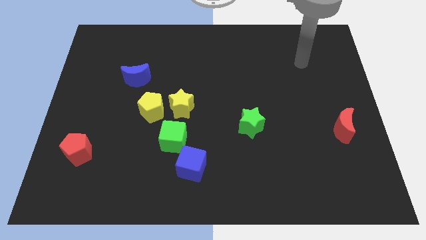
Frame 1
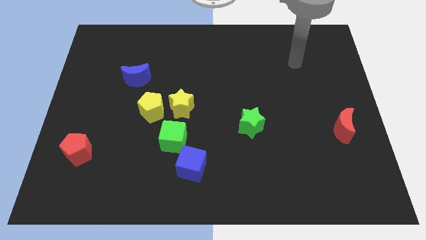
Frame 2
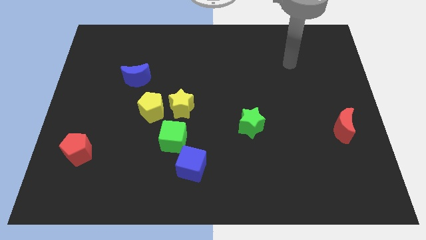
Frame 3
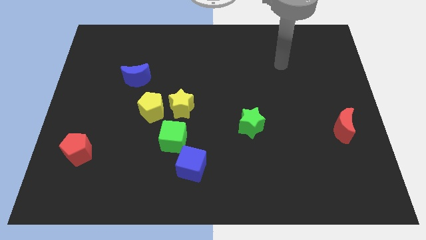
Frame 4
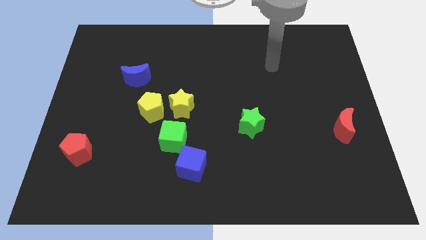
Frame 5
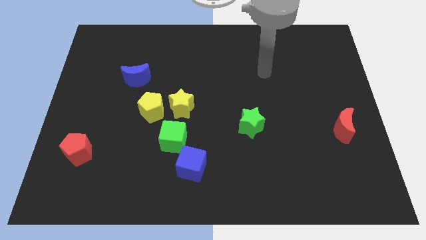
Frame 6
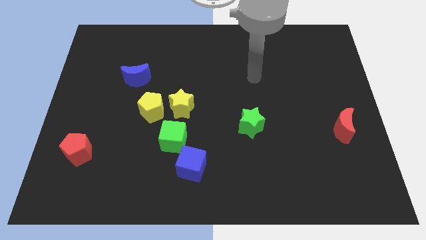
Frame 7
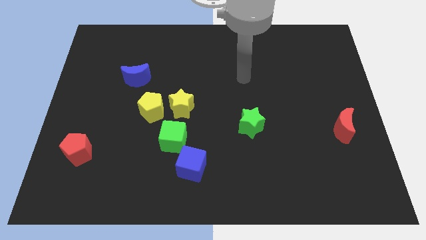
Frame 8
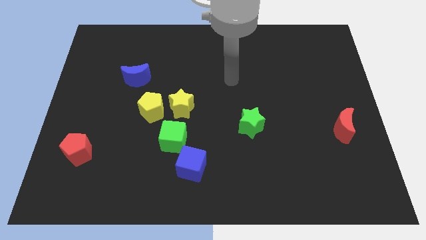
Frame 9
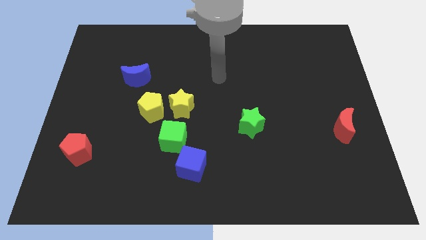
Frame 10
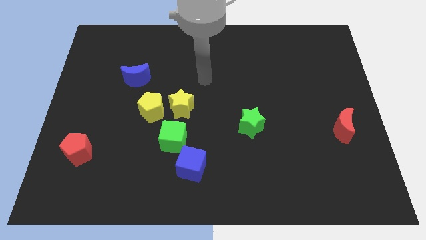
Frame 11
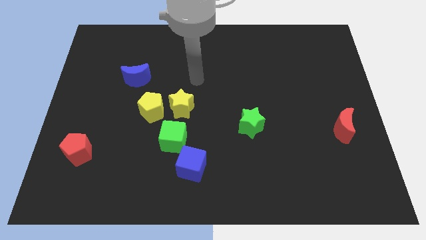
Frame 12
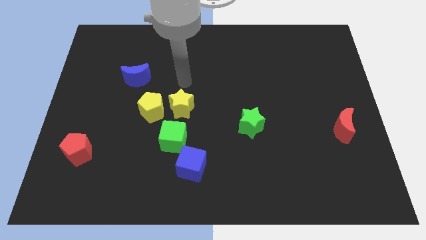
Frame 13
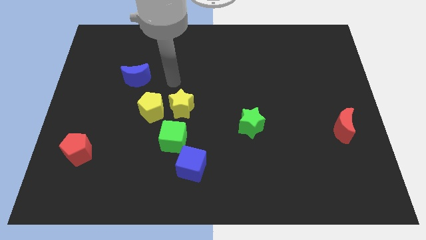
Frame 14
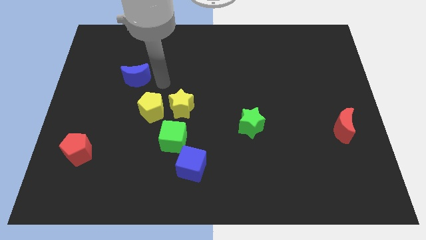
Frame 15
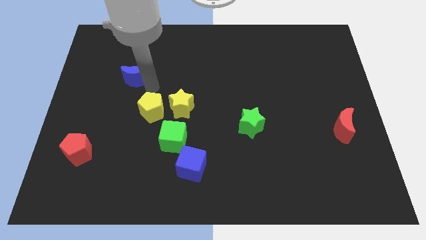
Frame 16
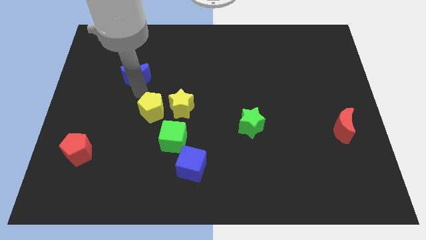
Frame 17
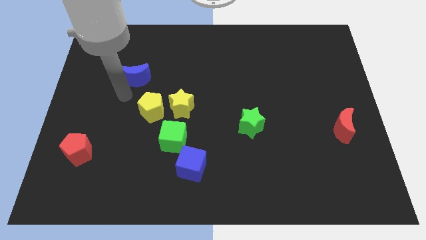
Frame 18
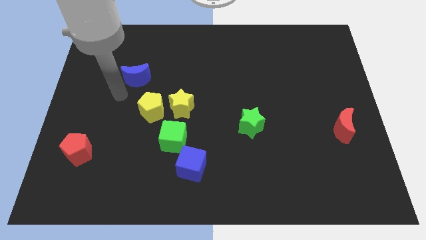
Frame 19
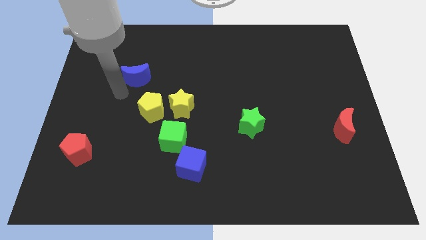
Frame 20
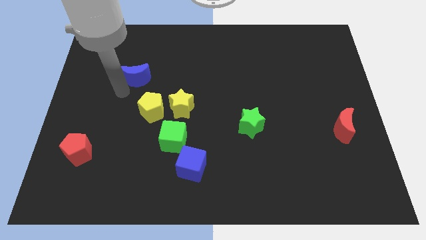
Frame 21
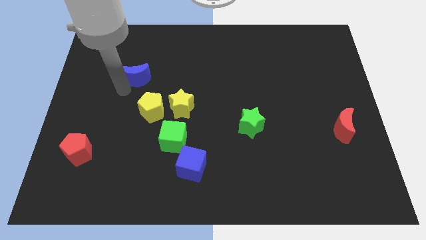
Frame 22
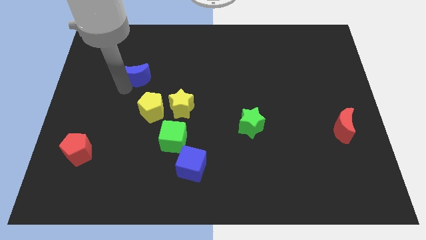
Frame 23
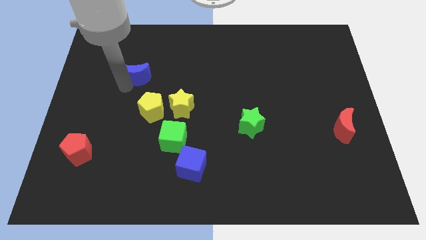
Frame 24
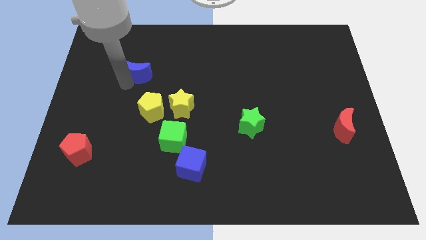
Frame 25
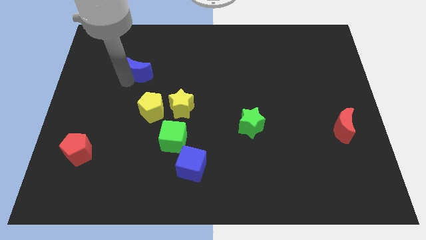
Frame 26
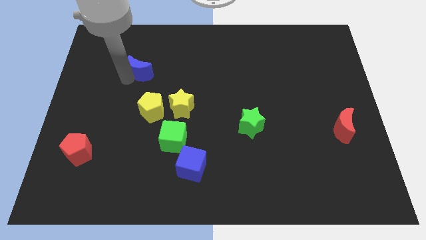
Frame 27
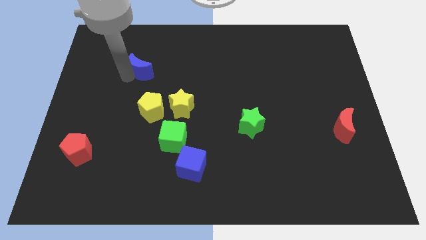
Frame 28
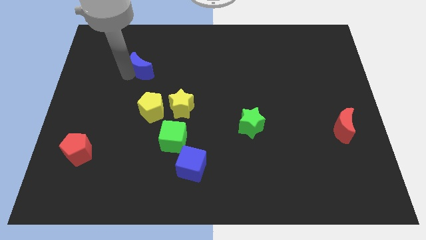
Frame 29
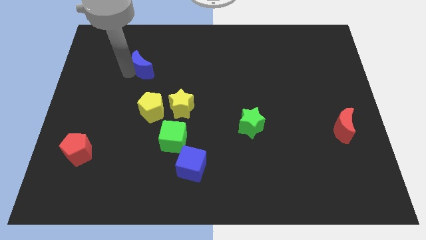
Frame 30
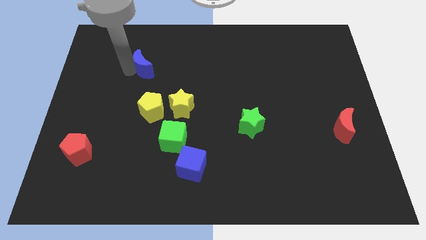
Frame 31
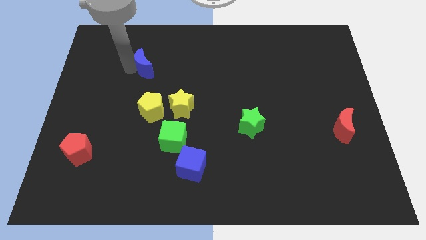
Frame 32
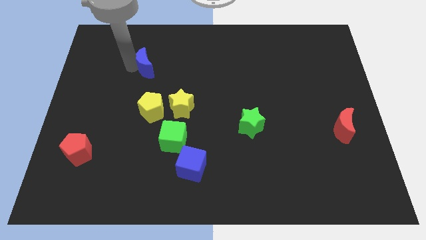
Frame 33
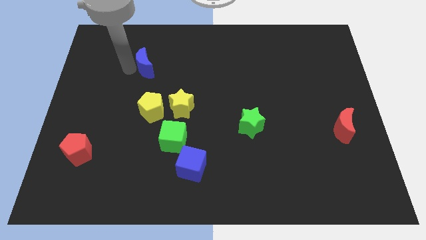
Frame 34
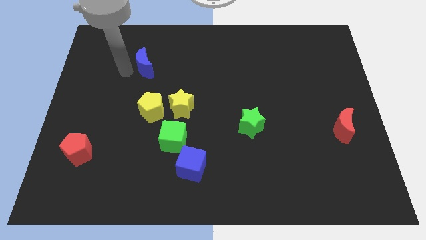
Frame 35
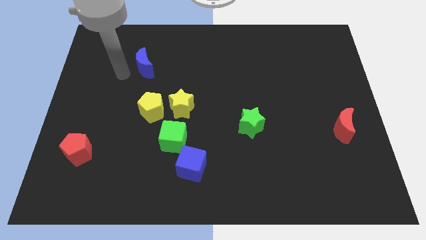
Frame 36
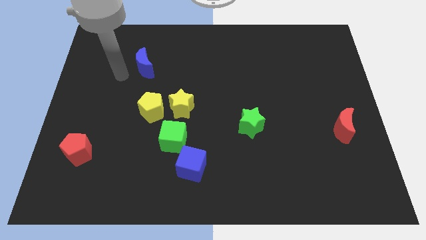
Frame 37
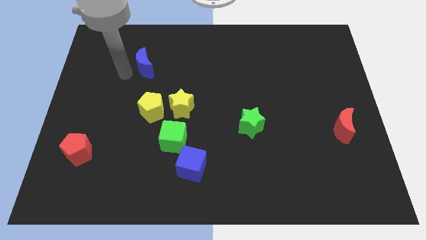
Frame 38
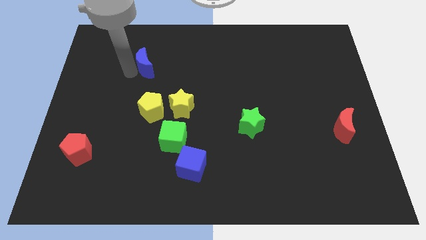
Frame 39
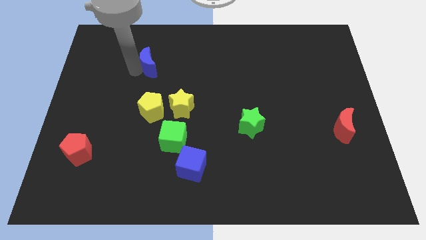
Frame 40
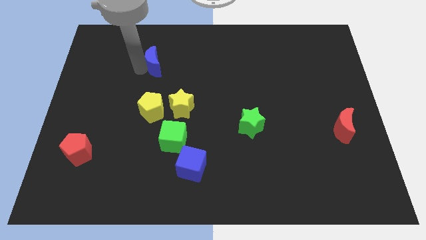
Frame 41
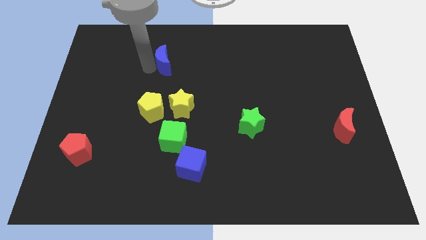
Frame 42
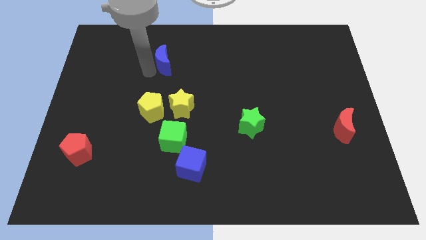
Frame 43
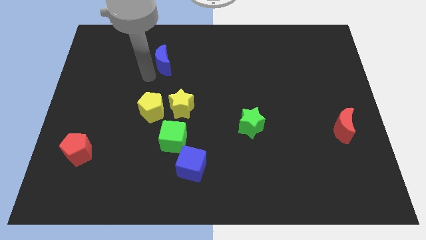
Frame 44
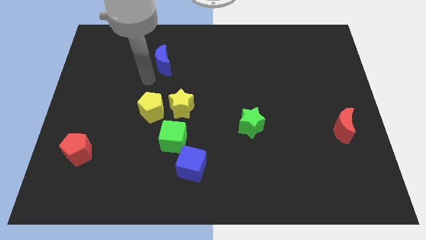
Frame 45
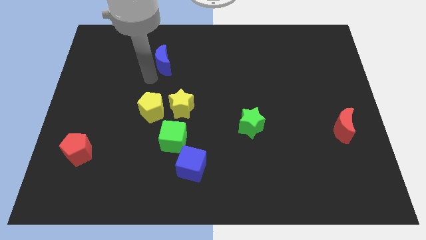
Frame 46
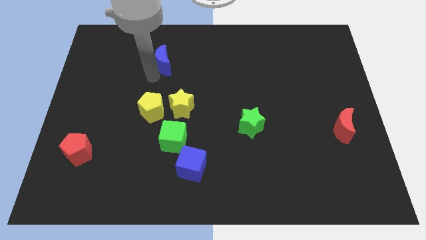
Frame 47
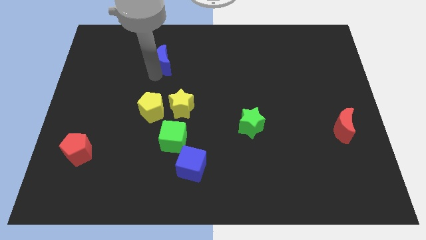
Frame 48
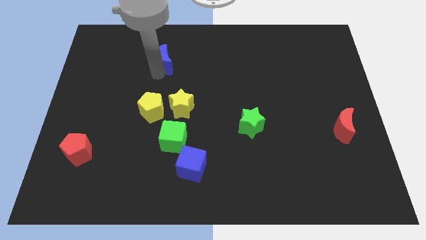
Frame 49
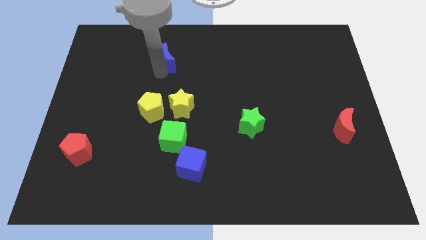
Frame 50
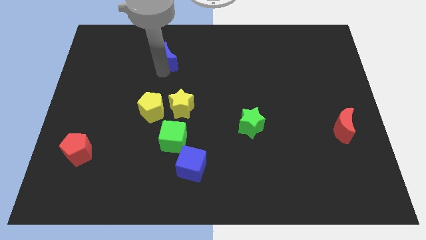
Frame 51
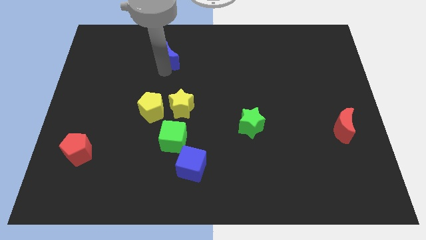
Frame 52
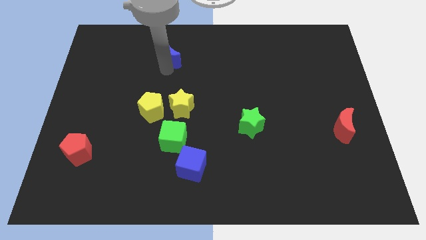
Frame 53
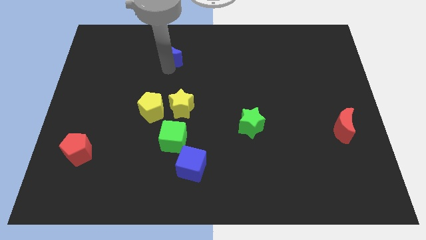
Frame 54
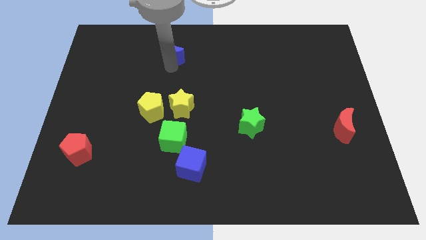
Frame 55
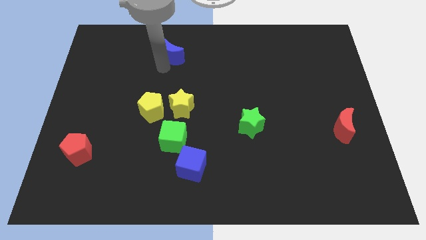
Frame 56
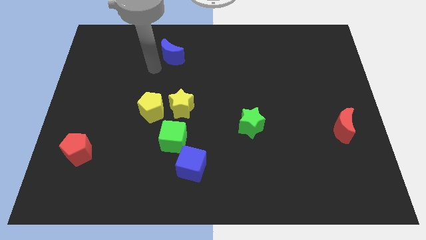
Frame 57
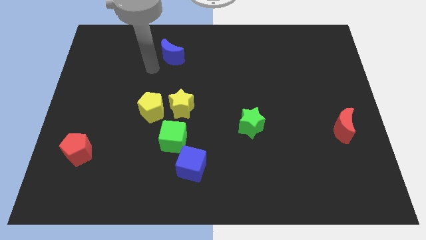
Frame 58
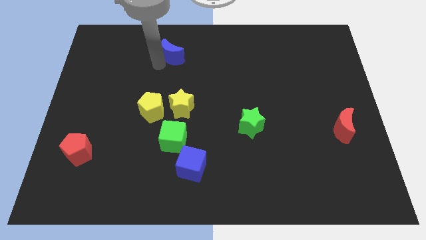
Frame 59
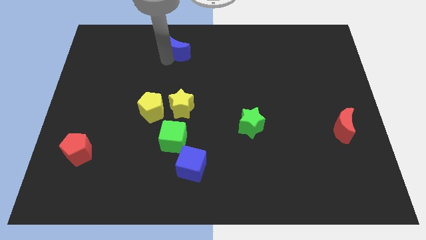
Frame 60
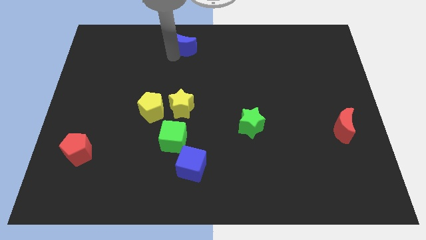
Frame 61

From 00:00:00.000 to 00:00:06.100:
push the blue moon to the top

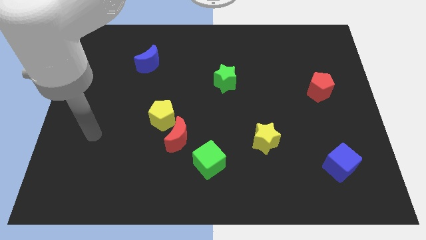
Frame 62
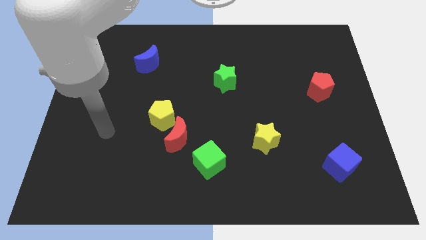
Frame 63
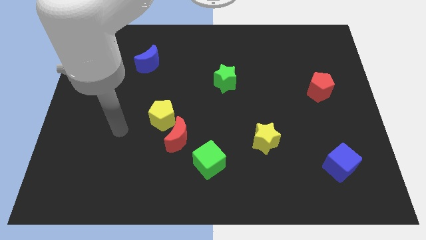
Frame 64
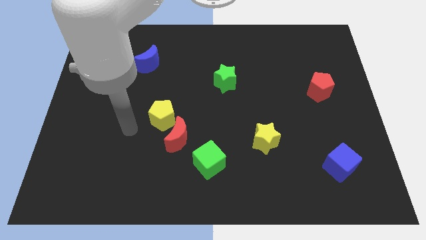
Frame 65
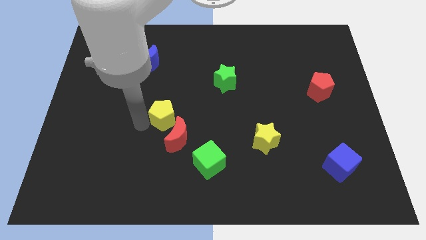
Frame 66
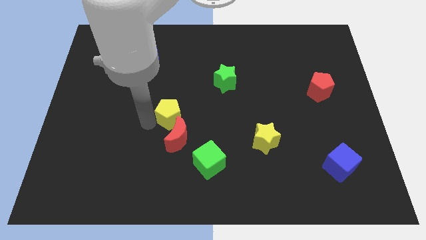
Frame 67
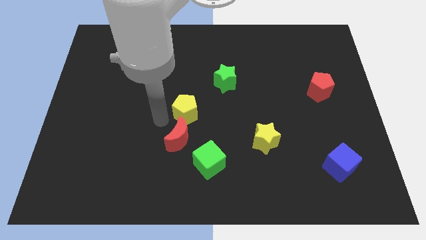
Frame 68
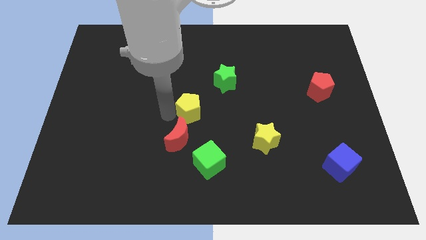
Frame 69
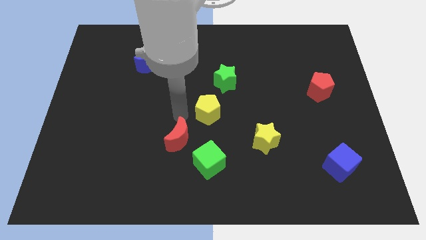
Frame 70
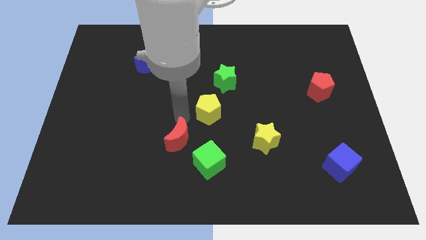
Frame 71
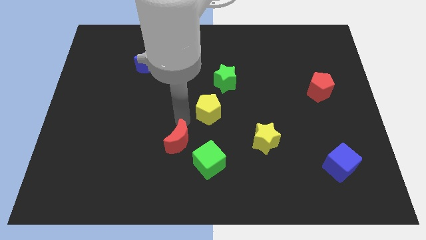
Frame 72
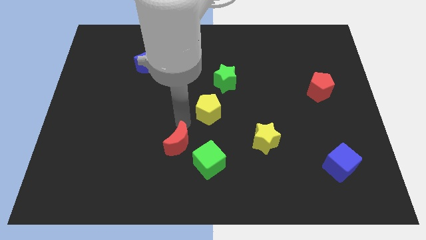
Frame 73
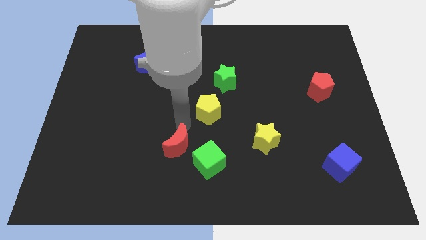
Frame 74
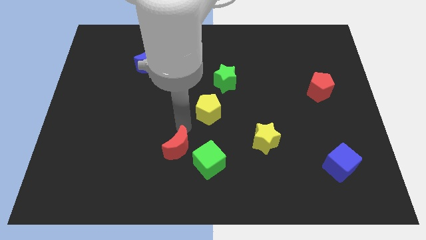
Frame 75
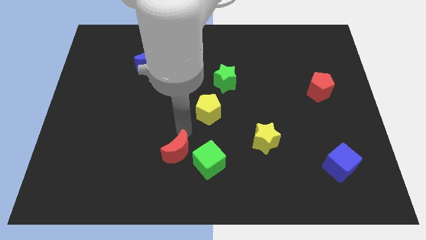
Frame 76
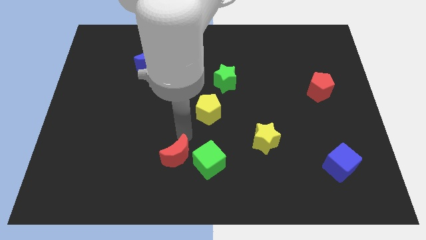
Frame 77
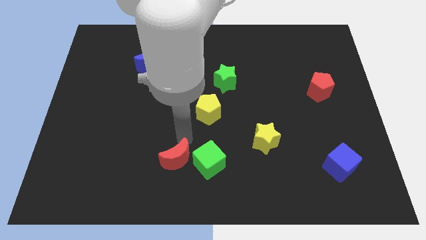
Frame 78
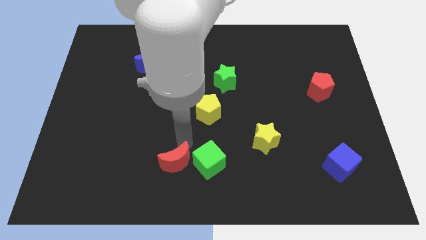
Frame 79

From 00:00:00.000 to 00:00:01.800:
push the red moon to the bottom

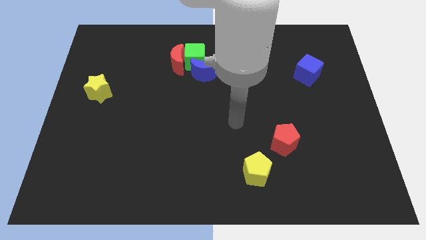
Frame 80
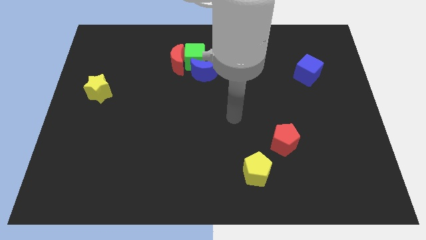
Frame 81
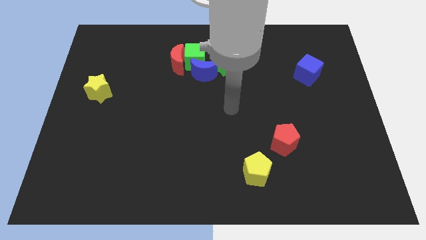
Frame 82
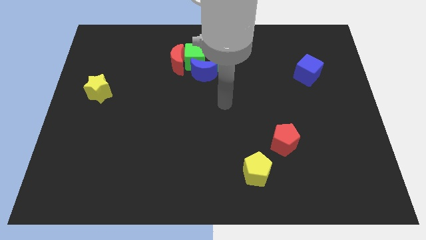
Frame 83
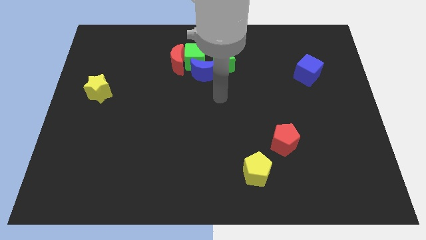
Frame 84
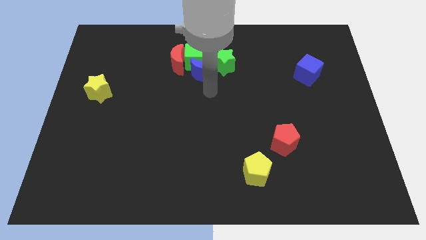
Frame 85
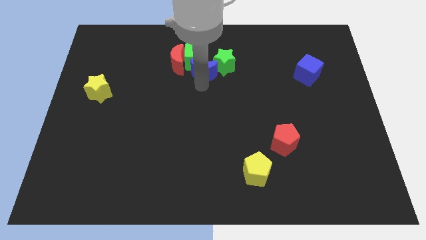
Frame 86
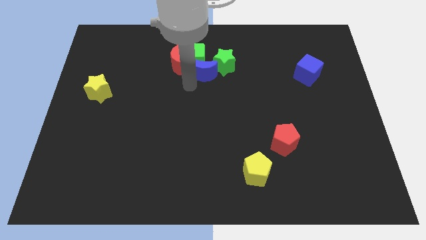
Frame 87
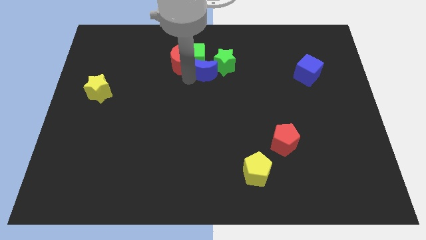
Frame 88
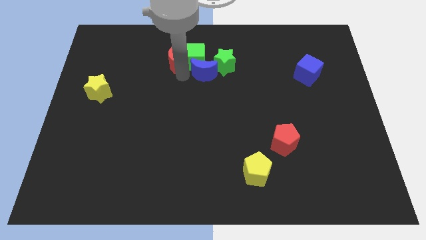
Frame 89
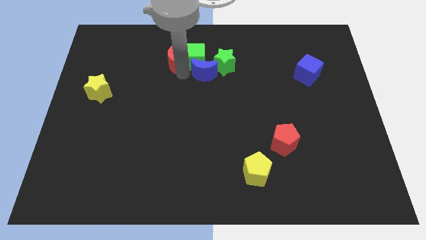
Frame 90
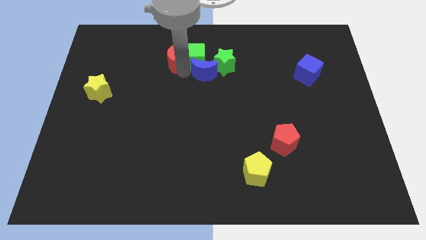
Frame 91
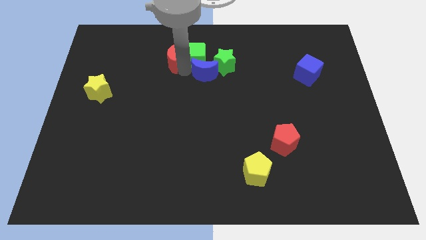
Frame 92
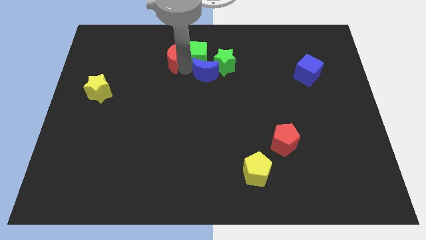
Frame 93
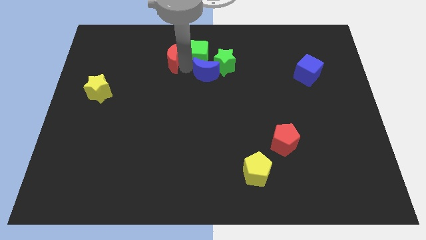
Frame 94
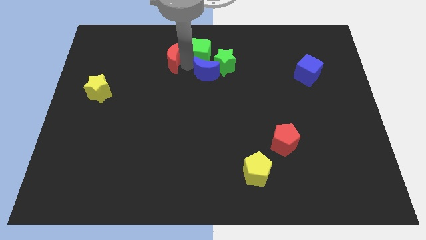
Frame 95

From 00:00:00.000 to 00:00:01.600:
put the green cube to the towards your base
